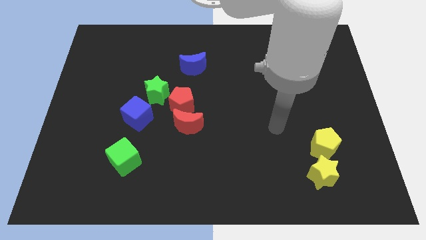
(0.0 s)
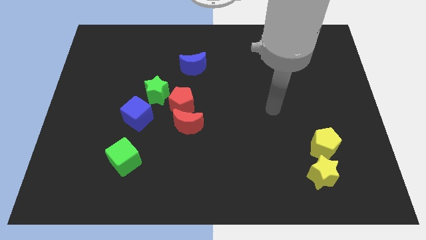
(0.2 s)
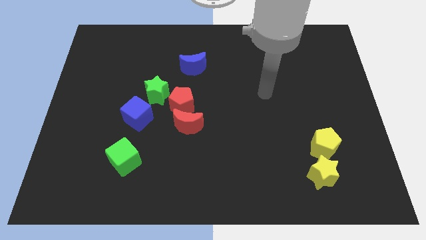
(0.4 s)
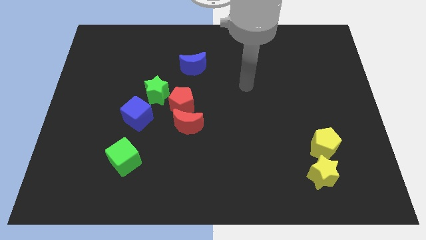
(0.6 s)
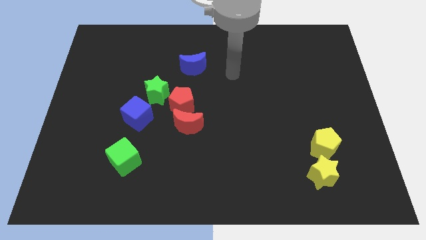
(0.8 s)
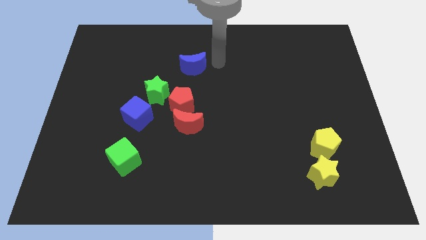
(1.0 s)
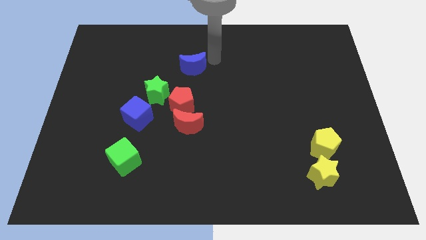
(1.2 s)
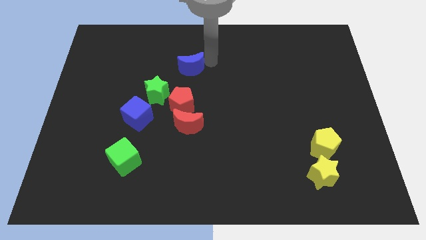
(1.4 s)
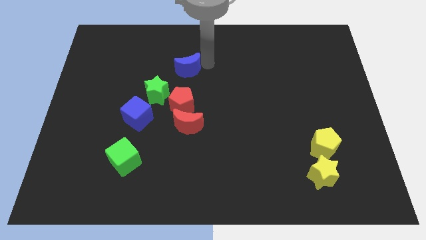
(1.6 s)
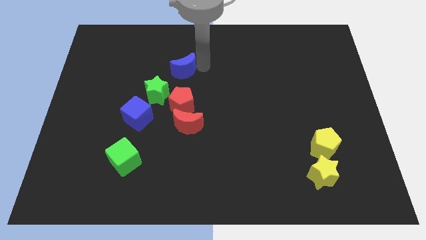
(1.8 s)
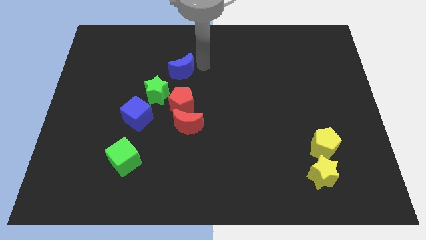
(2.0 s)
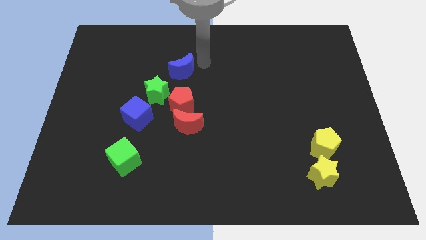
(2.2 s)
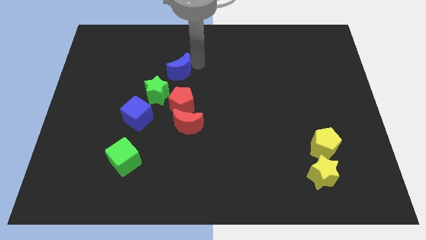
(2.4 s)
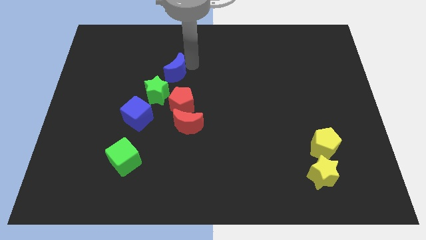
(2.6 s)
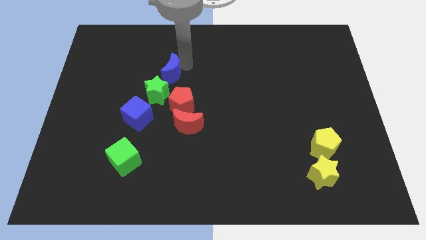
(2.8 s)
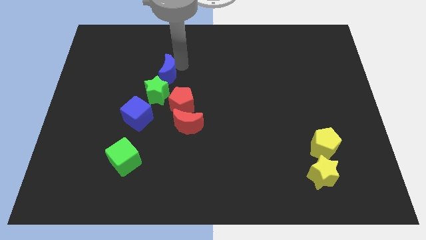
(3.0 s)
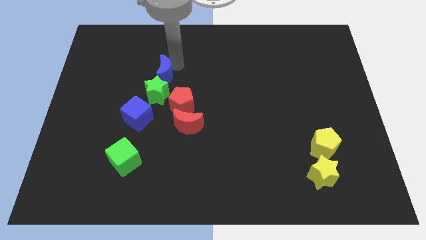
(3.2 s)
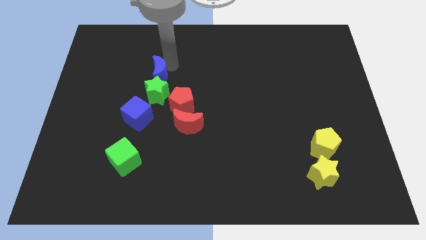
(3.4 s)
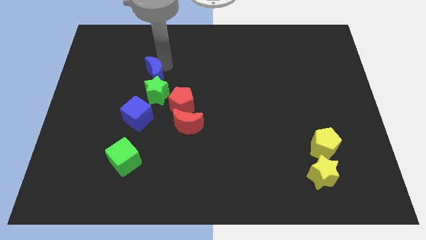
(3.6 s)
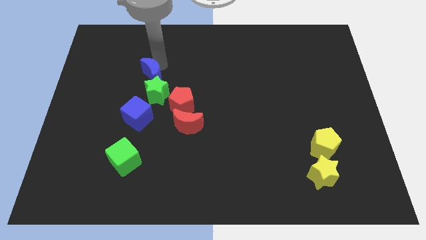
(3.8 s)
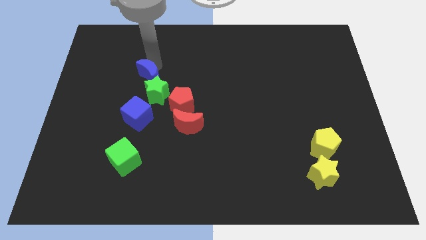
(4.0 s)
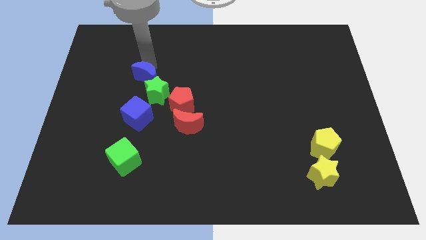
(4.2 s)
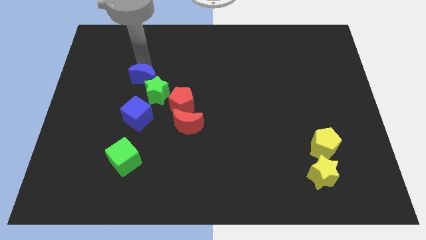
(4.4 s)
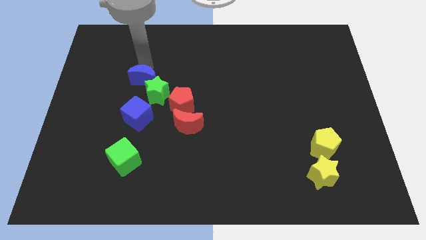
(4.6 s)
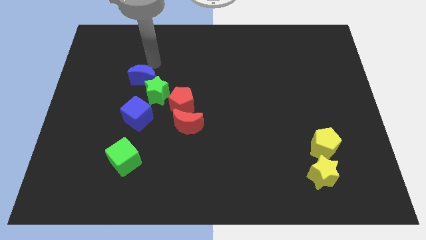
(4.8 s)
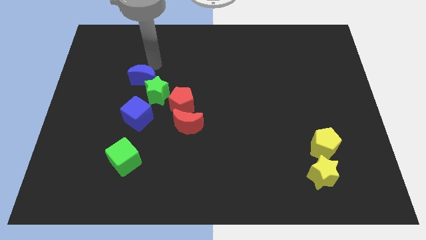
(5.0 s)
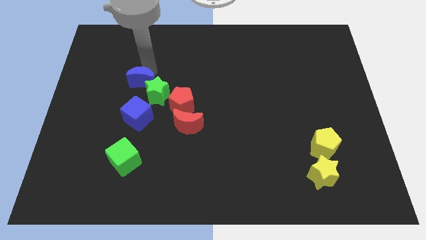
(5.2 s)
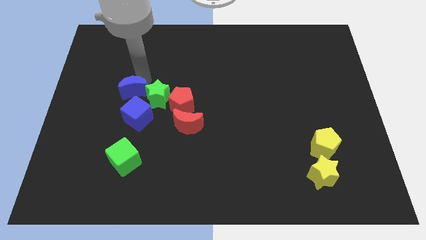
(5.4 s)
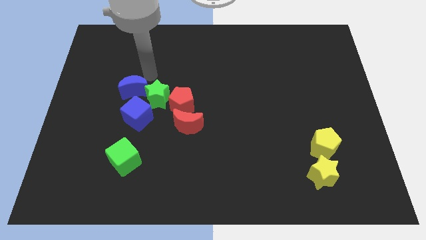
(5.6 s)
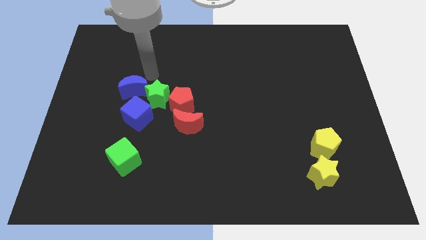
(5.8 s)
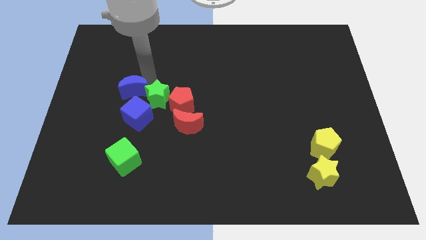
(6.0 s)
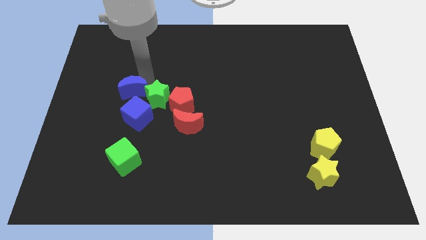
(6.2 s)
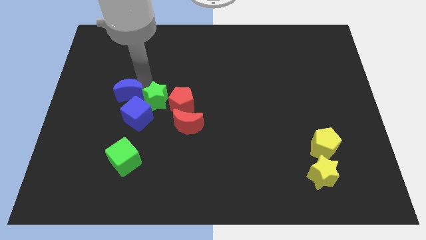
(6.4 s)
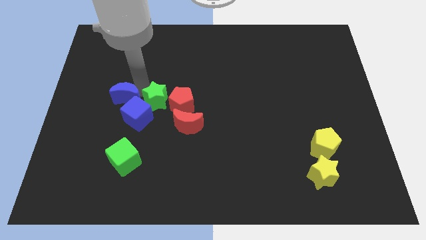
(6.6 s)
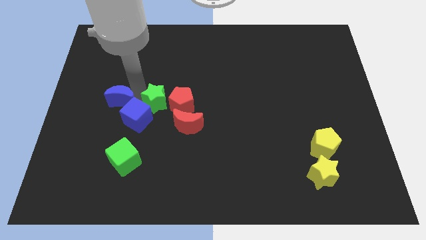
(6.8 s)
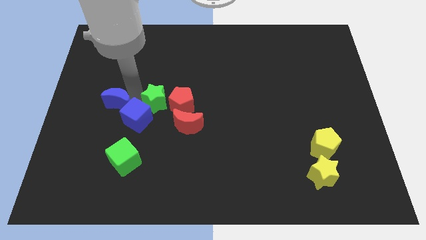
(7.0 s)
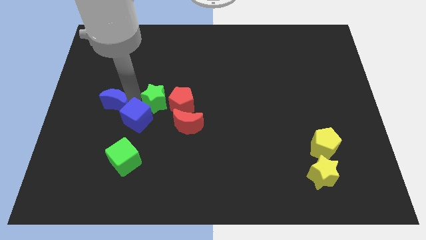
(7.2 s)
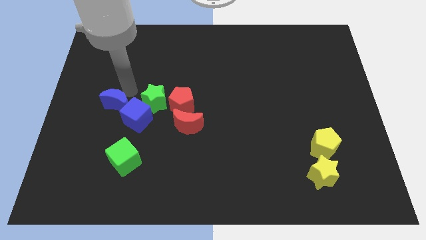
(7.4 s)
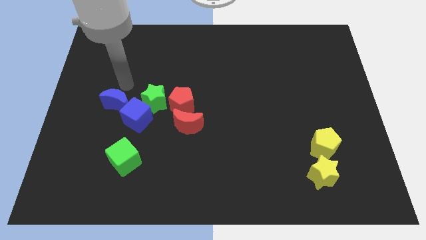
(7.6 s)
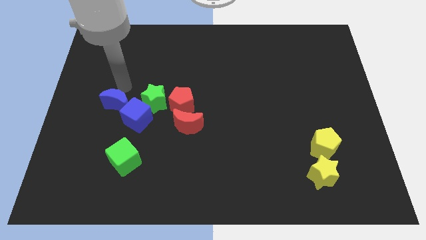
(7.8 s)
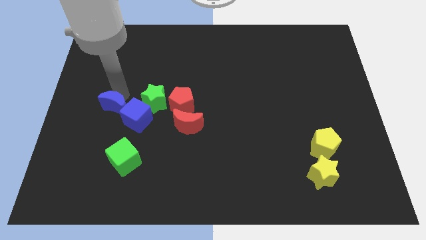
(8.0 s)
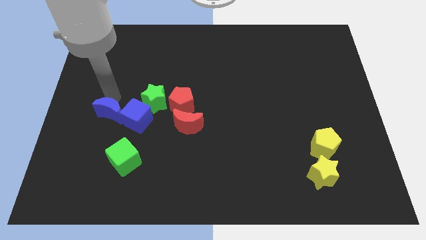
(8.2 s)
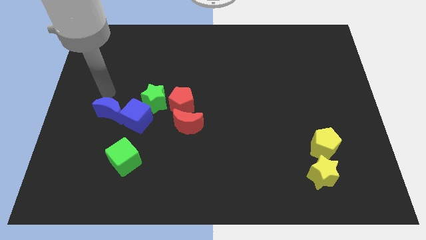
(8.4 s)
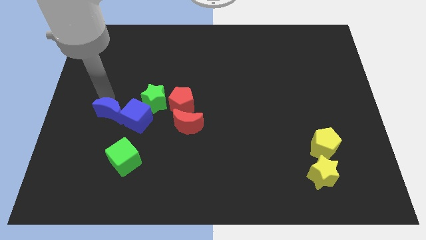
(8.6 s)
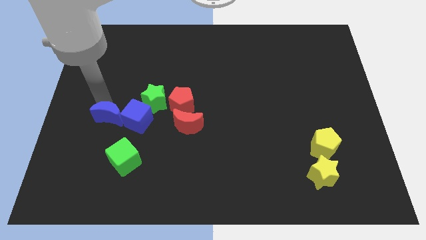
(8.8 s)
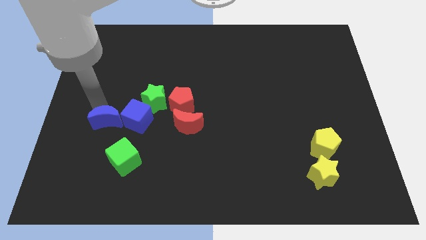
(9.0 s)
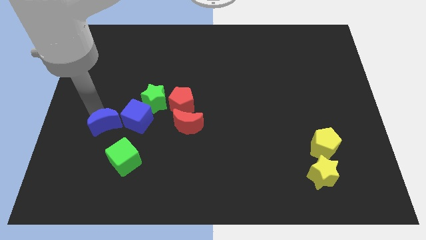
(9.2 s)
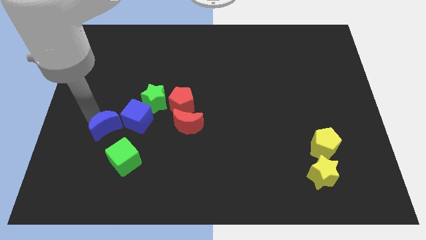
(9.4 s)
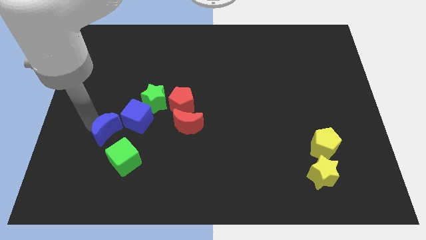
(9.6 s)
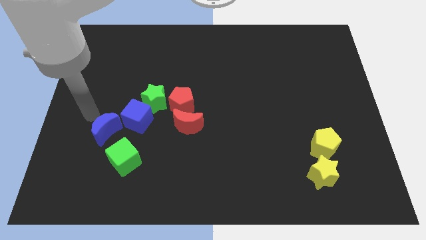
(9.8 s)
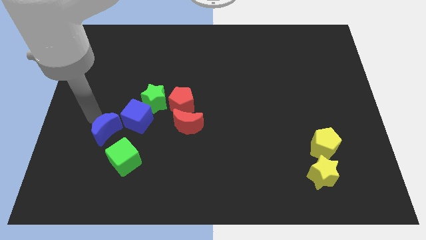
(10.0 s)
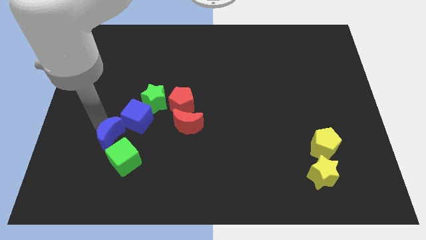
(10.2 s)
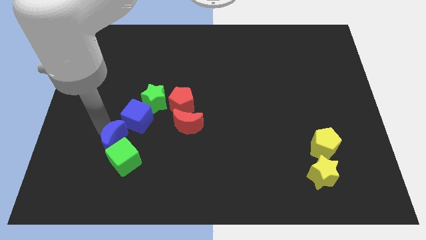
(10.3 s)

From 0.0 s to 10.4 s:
move the blue moon to the green cube

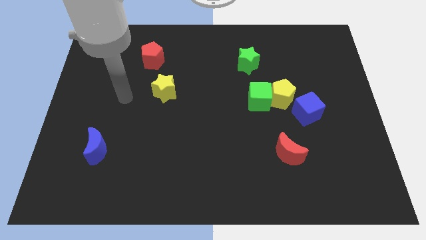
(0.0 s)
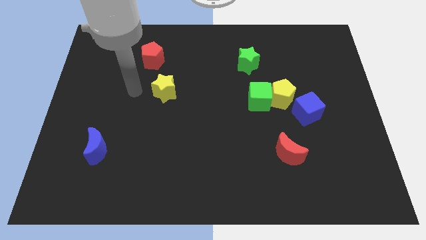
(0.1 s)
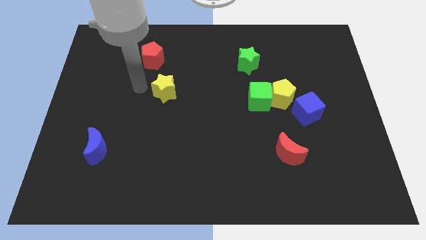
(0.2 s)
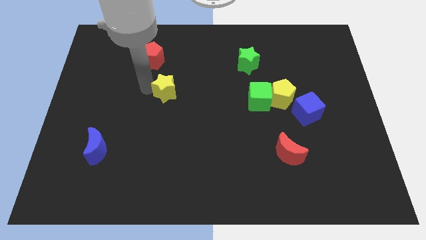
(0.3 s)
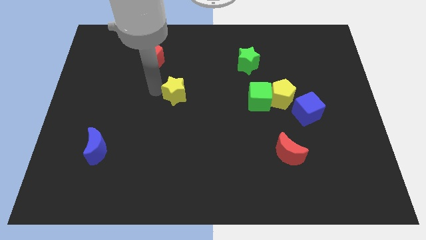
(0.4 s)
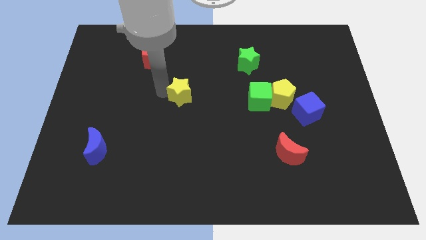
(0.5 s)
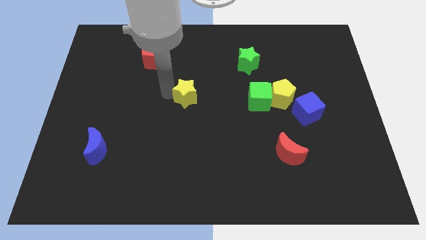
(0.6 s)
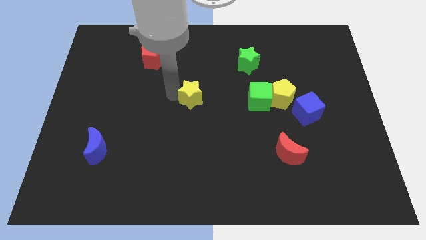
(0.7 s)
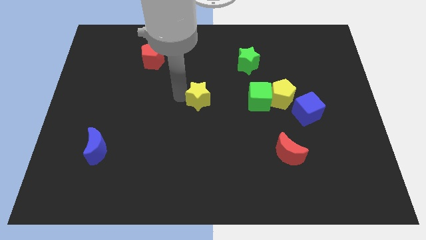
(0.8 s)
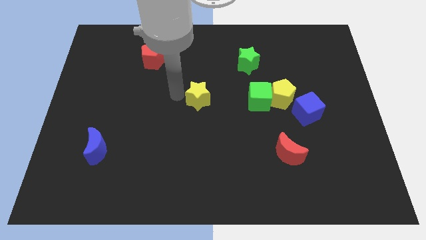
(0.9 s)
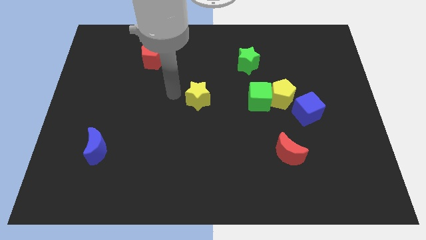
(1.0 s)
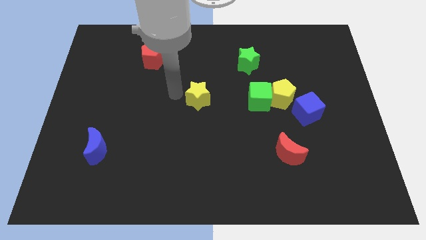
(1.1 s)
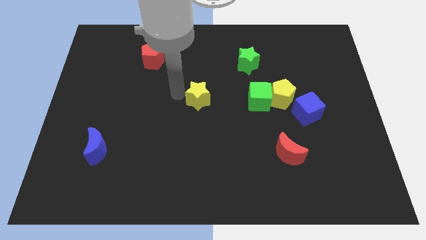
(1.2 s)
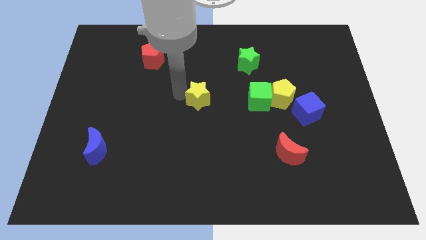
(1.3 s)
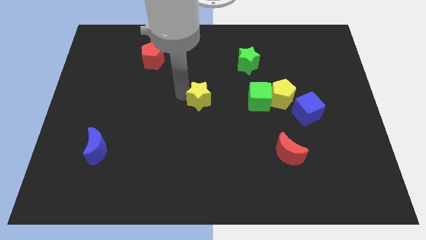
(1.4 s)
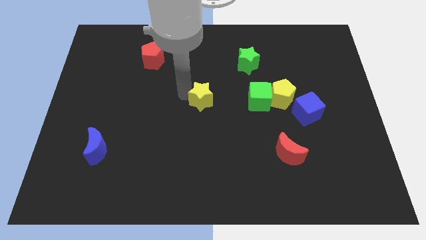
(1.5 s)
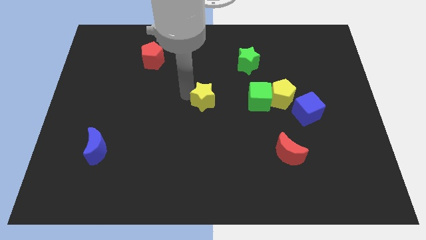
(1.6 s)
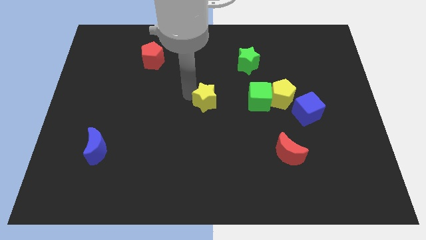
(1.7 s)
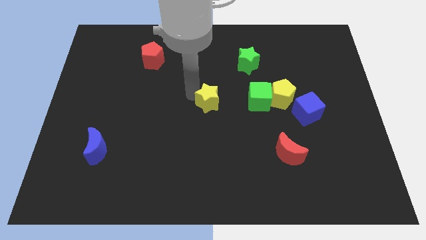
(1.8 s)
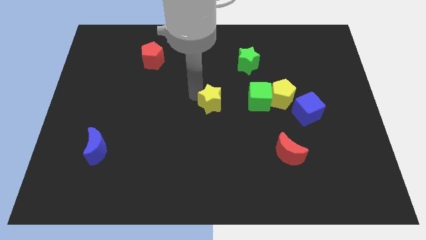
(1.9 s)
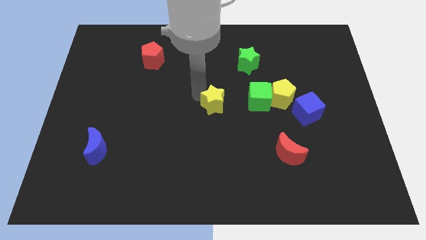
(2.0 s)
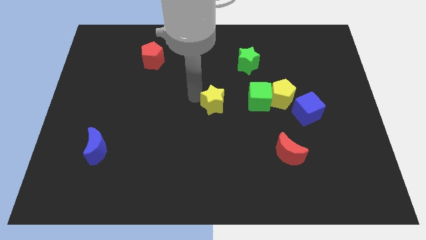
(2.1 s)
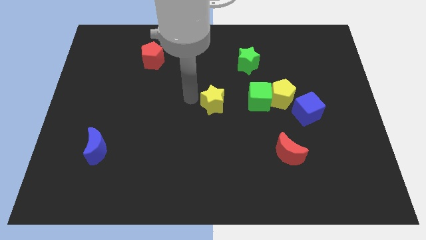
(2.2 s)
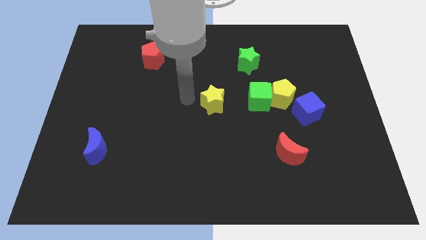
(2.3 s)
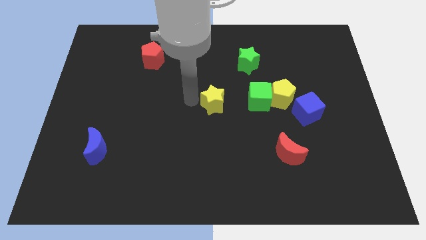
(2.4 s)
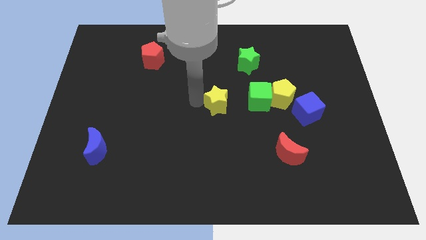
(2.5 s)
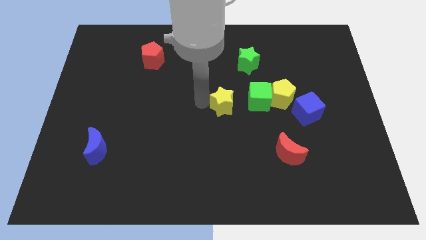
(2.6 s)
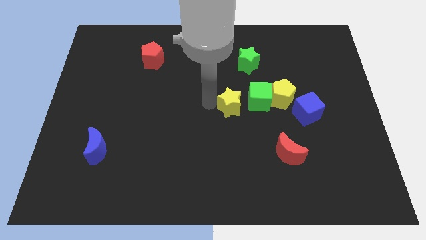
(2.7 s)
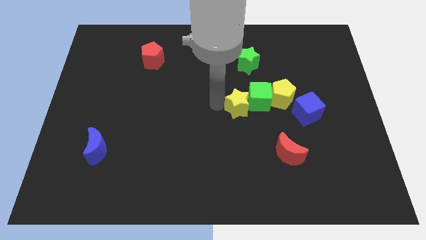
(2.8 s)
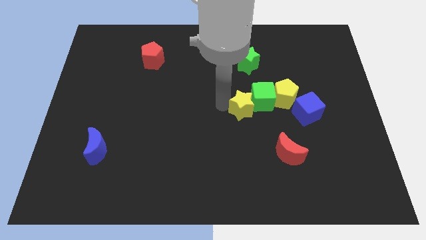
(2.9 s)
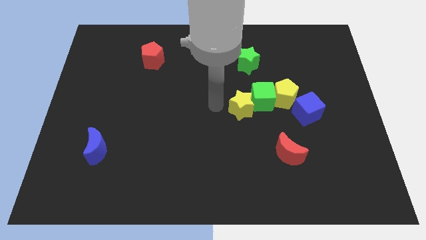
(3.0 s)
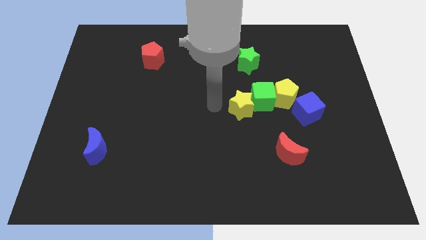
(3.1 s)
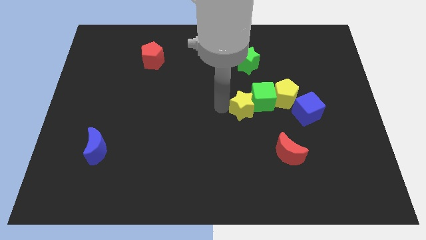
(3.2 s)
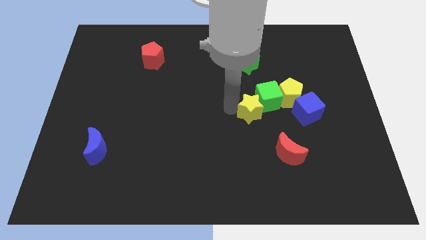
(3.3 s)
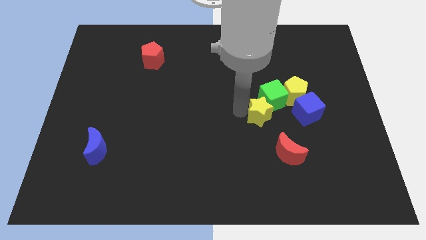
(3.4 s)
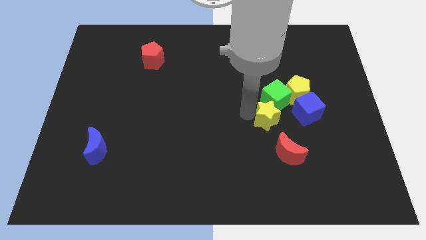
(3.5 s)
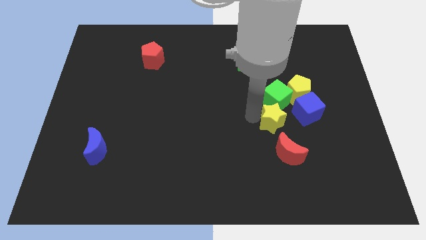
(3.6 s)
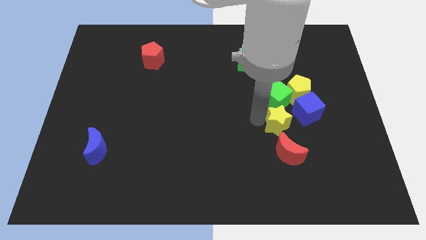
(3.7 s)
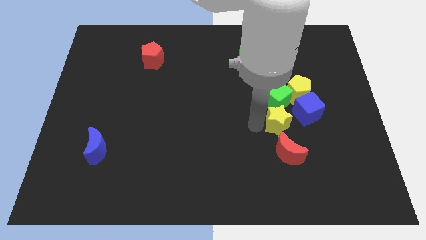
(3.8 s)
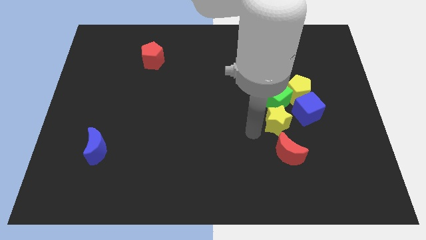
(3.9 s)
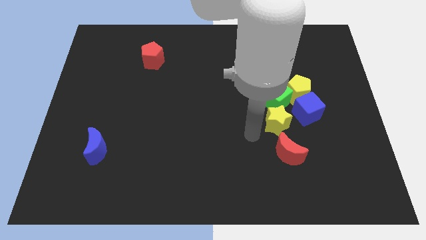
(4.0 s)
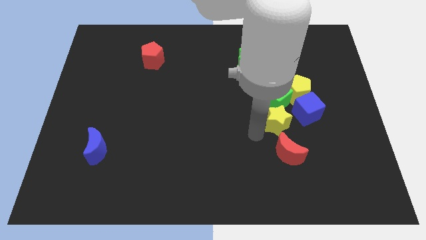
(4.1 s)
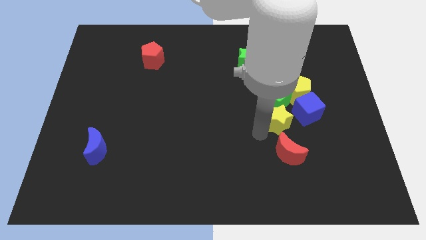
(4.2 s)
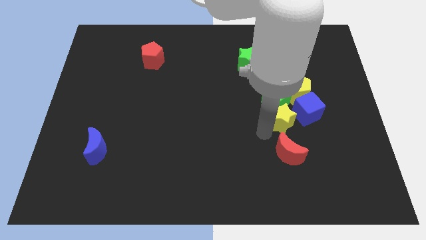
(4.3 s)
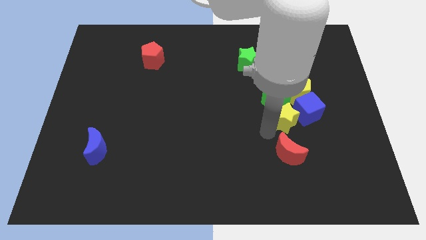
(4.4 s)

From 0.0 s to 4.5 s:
put the yellow star next to the blue cube
